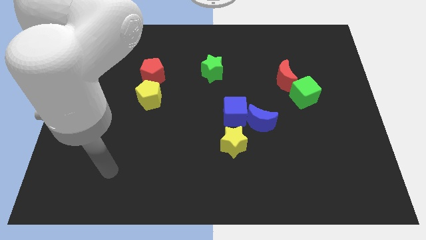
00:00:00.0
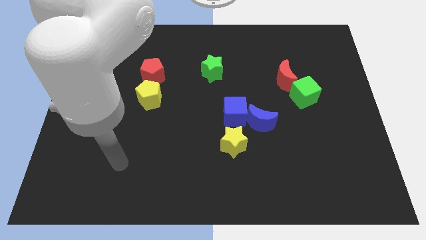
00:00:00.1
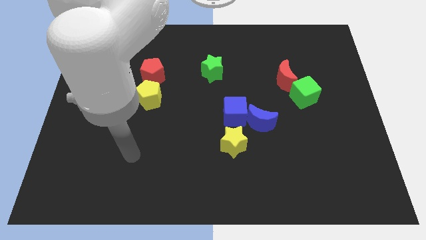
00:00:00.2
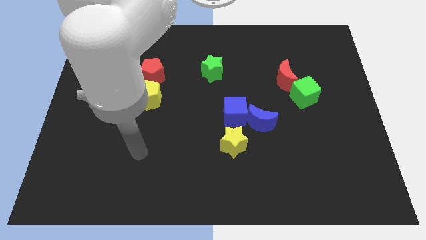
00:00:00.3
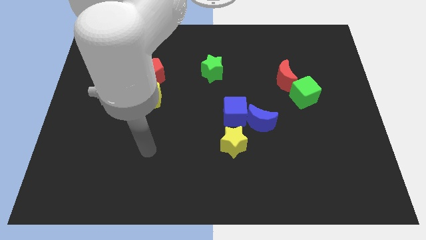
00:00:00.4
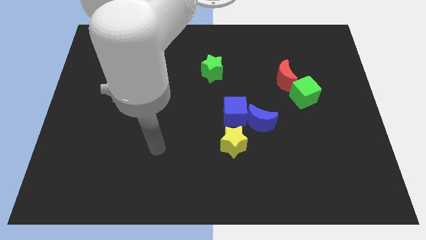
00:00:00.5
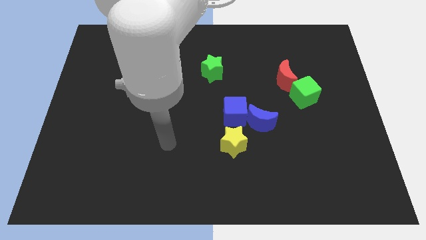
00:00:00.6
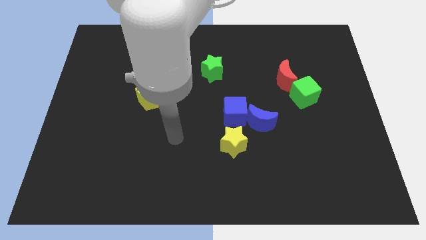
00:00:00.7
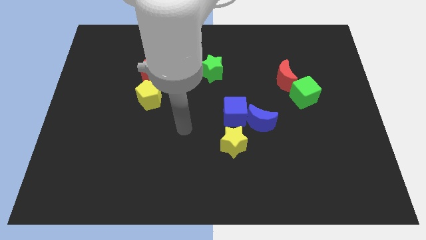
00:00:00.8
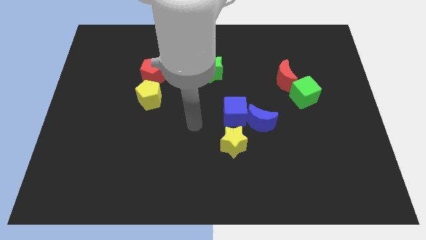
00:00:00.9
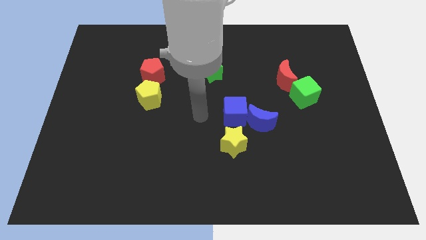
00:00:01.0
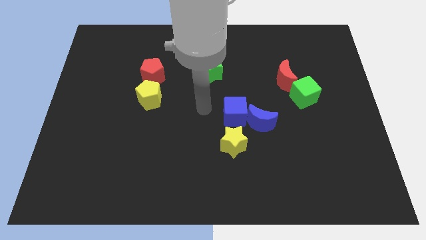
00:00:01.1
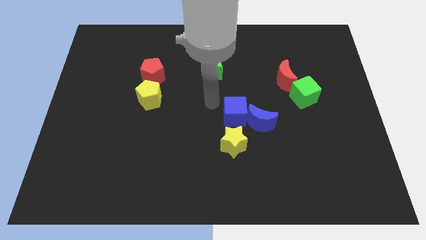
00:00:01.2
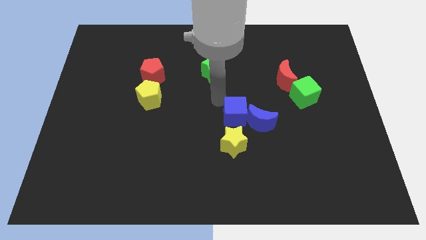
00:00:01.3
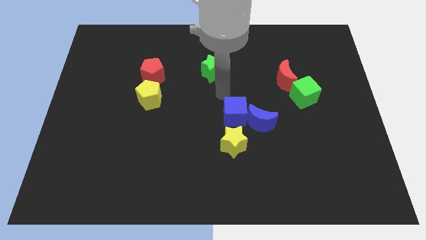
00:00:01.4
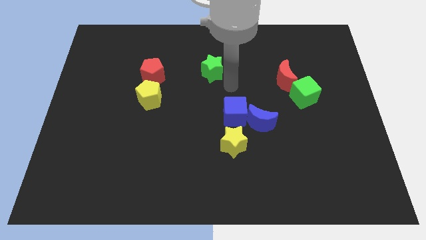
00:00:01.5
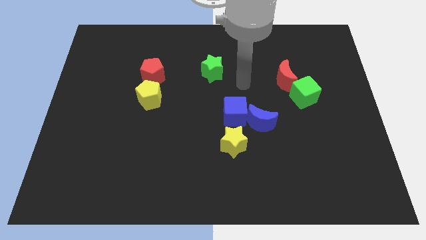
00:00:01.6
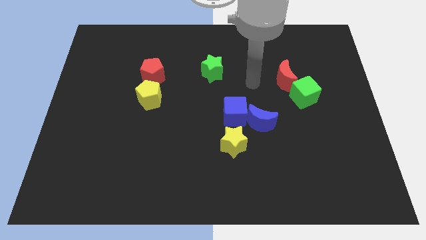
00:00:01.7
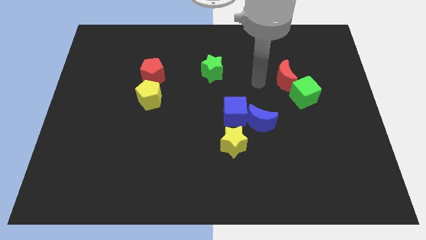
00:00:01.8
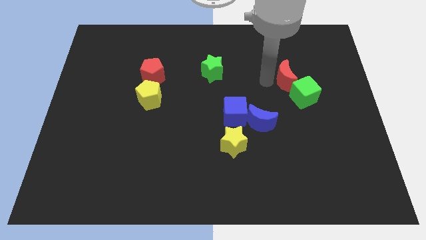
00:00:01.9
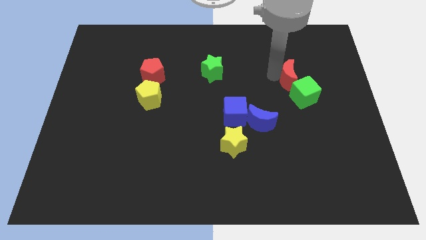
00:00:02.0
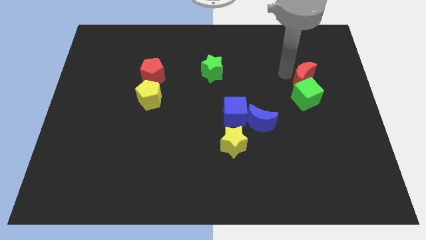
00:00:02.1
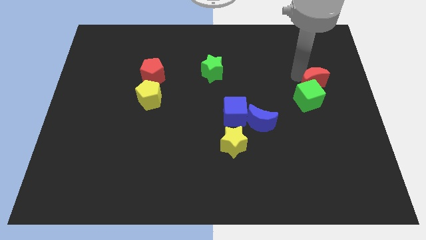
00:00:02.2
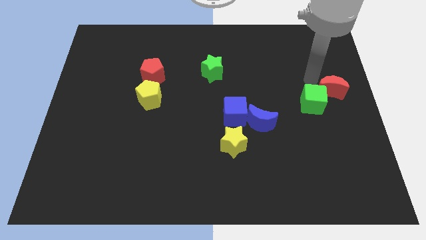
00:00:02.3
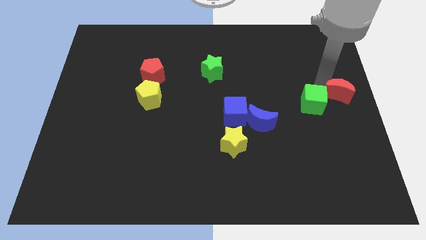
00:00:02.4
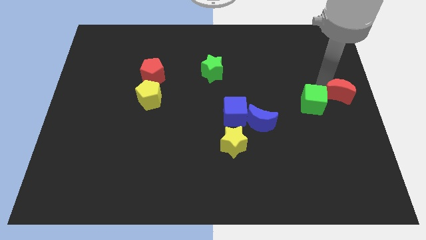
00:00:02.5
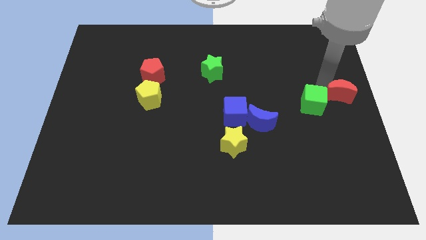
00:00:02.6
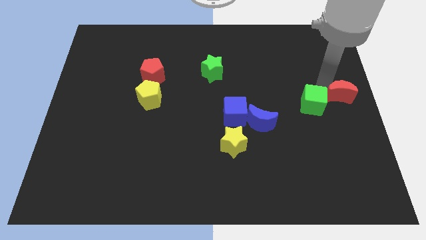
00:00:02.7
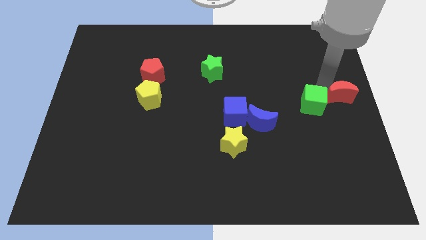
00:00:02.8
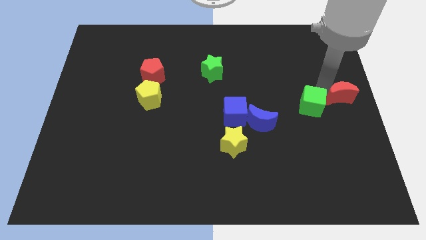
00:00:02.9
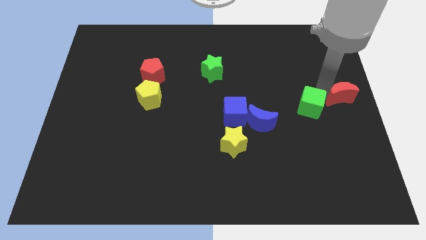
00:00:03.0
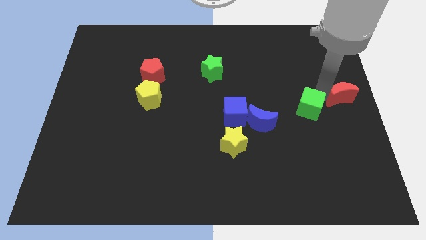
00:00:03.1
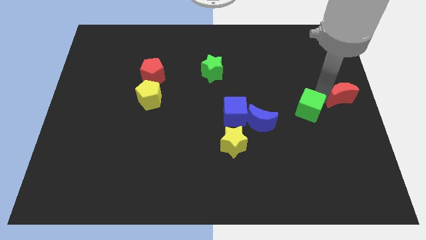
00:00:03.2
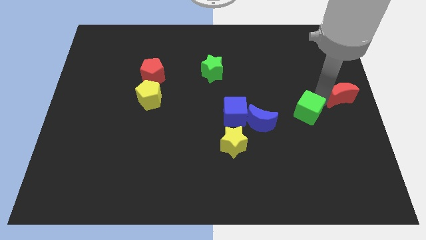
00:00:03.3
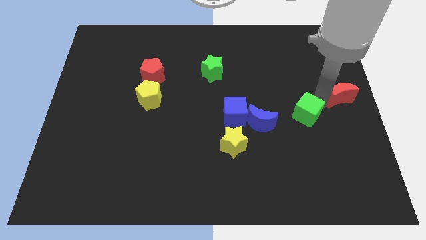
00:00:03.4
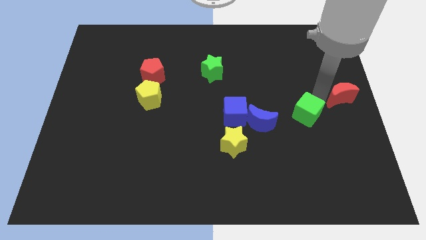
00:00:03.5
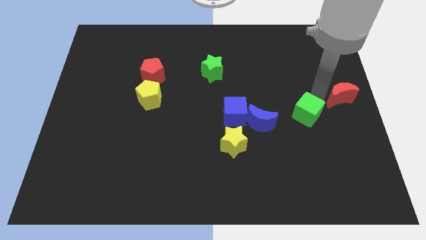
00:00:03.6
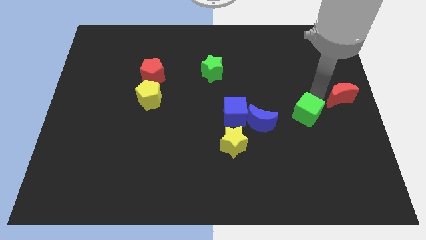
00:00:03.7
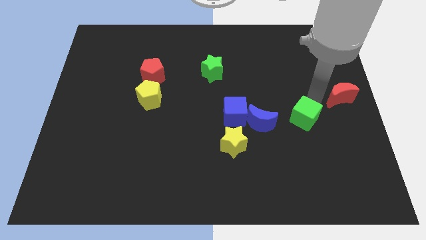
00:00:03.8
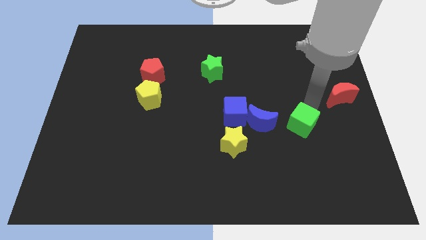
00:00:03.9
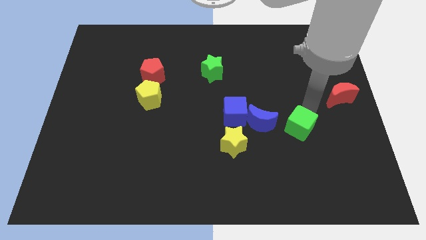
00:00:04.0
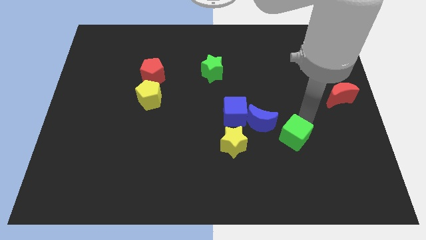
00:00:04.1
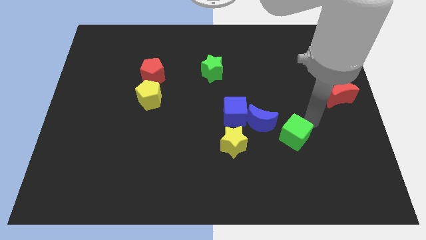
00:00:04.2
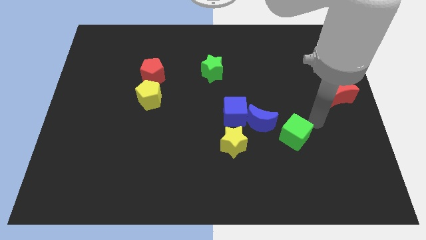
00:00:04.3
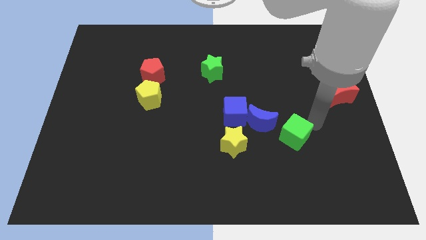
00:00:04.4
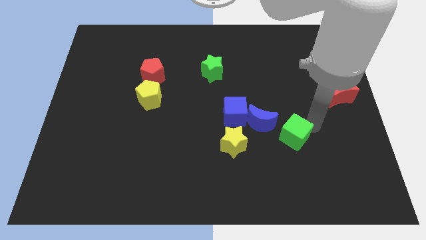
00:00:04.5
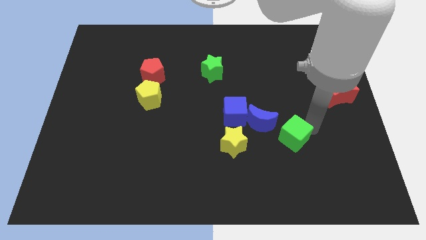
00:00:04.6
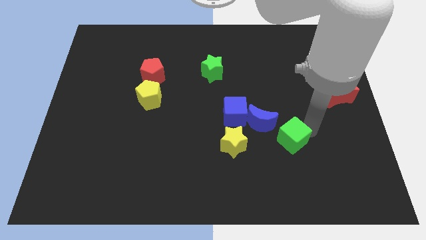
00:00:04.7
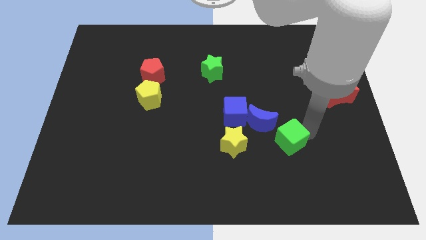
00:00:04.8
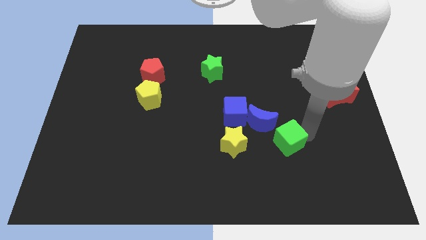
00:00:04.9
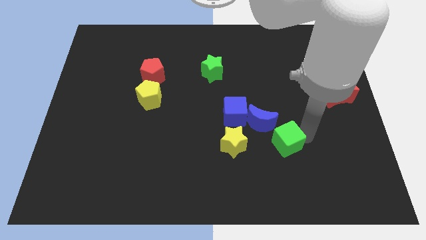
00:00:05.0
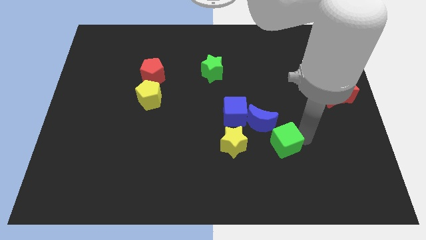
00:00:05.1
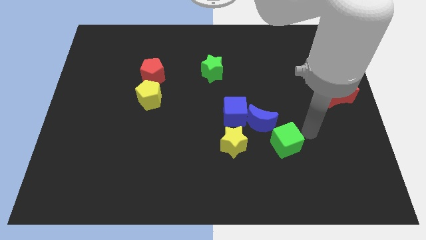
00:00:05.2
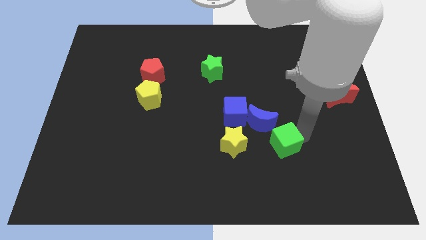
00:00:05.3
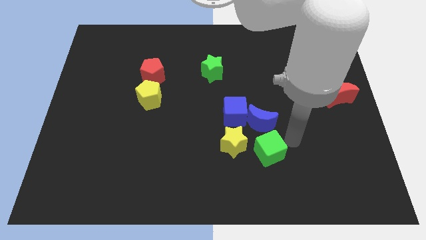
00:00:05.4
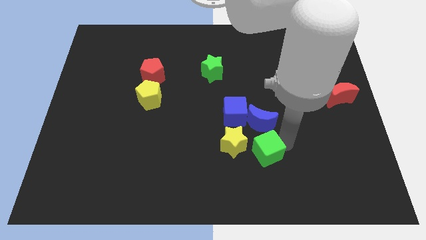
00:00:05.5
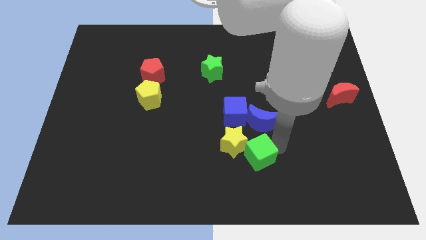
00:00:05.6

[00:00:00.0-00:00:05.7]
move the green cube downwards and to the left diagonally

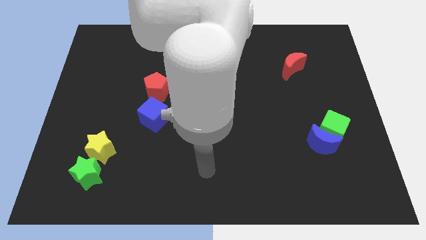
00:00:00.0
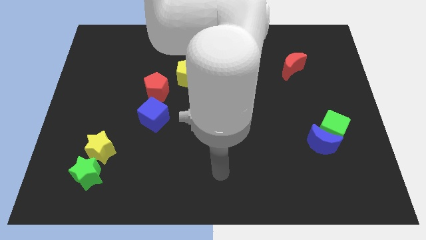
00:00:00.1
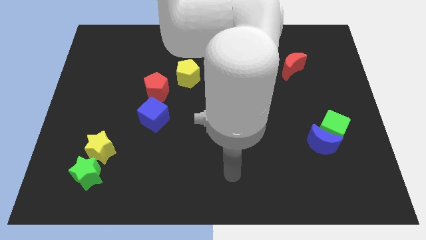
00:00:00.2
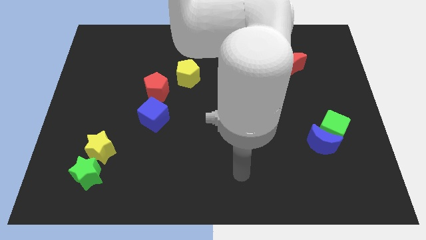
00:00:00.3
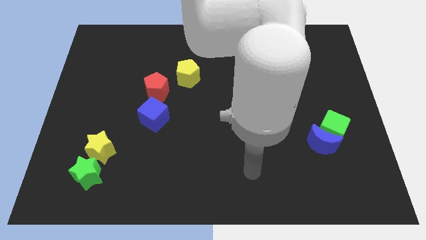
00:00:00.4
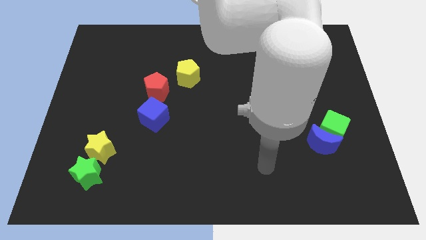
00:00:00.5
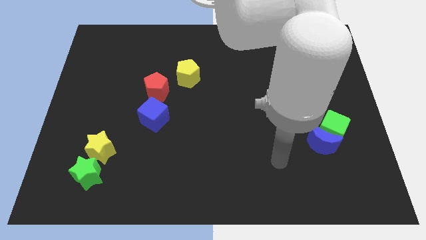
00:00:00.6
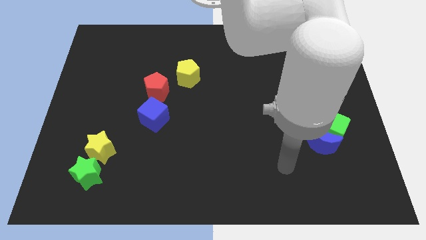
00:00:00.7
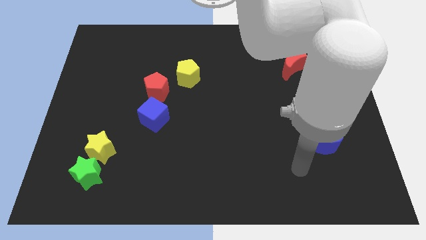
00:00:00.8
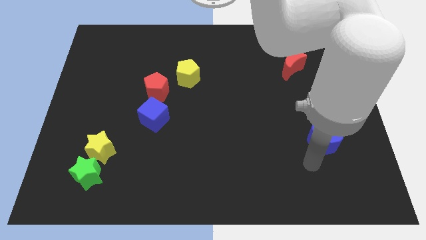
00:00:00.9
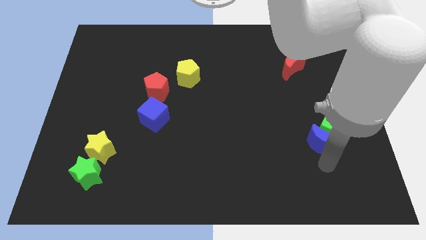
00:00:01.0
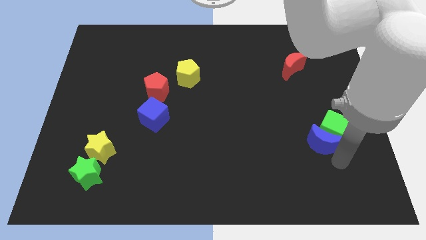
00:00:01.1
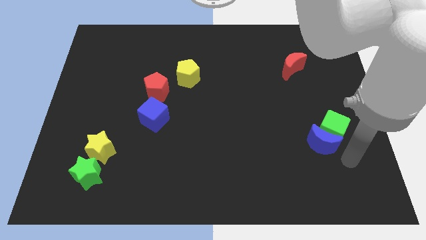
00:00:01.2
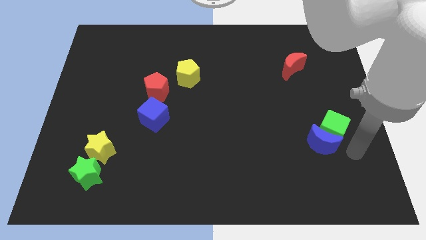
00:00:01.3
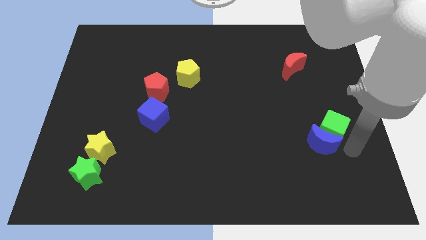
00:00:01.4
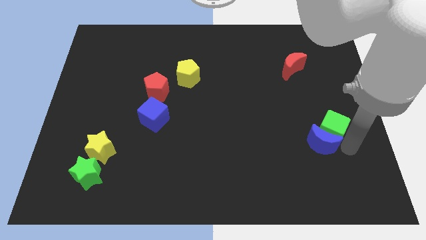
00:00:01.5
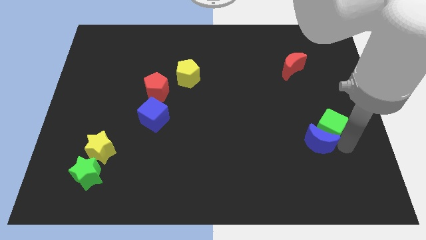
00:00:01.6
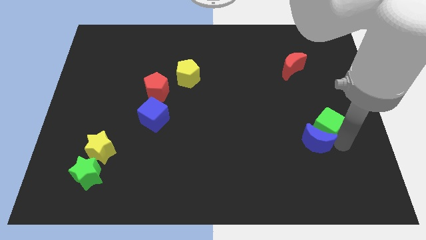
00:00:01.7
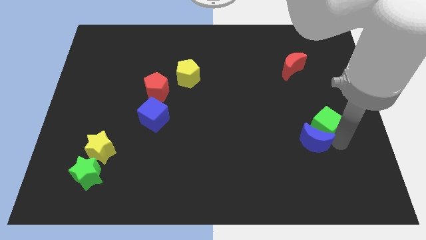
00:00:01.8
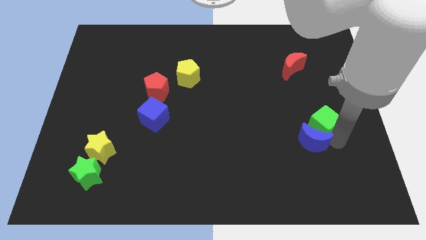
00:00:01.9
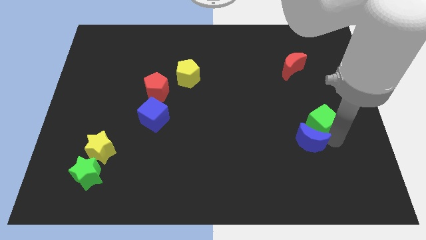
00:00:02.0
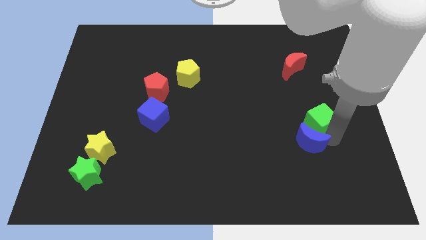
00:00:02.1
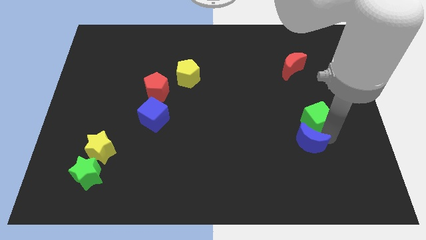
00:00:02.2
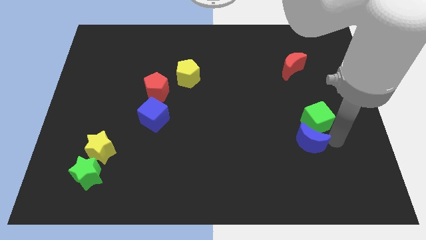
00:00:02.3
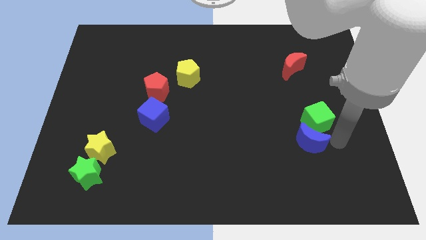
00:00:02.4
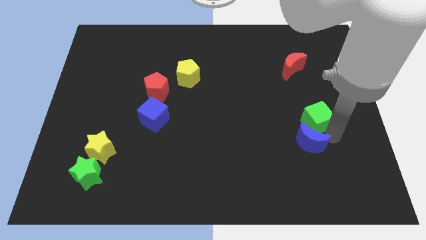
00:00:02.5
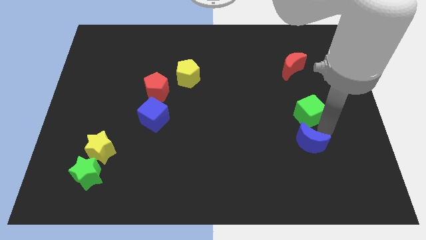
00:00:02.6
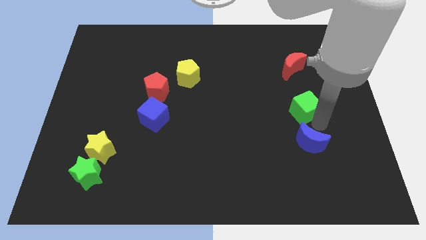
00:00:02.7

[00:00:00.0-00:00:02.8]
slightly push the green cube upwards and left
